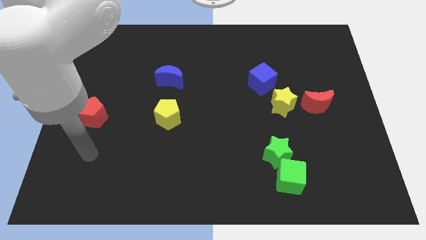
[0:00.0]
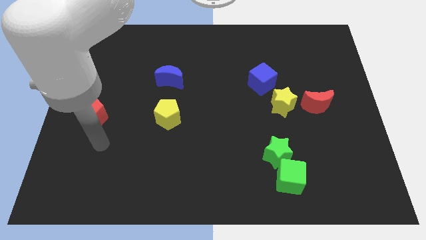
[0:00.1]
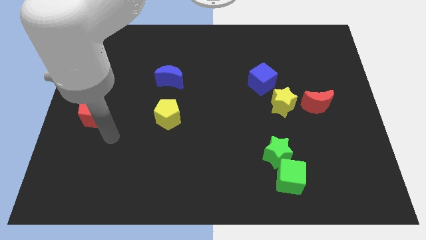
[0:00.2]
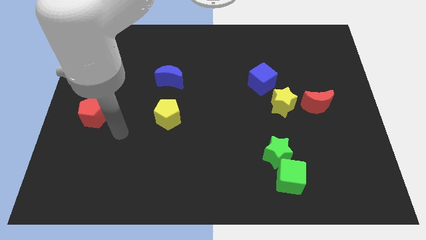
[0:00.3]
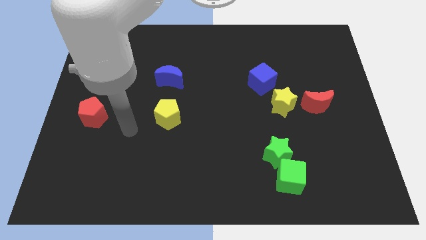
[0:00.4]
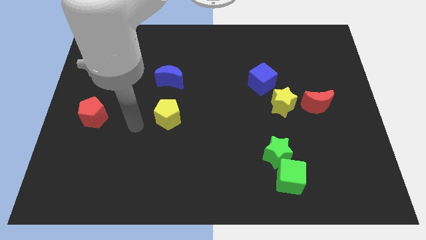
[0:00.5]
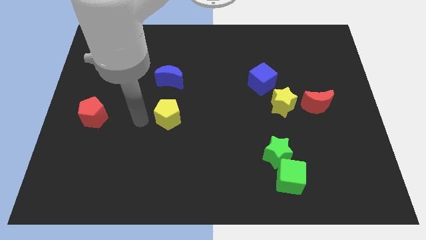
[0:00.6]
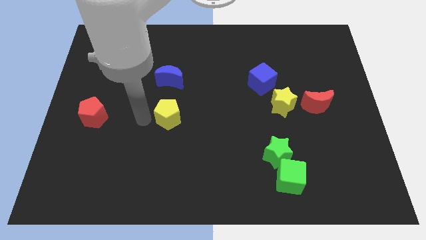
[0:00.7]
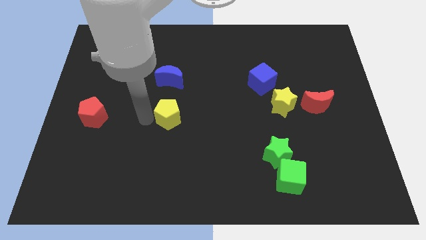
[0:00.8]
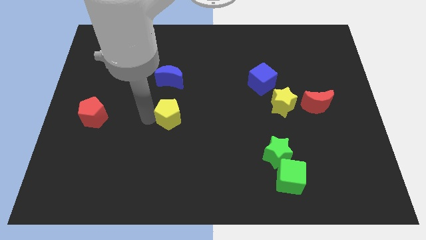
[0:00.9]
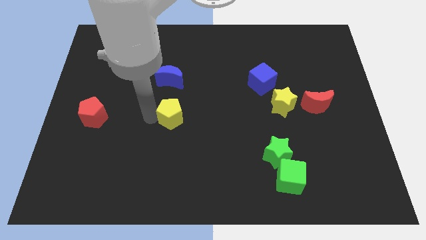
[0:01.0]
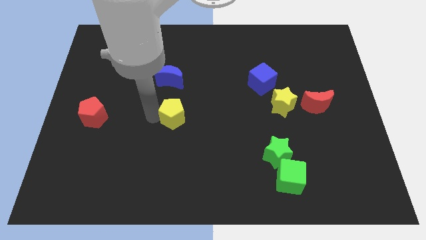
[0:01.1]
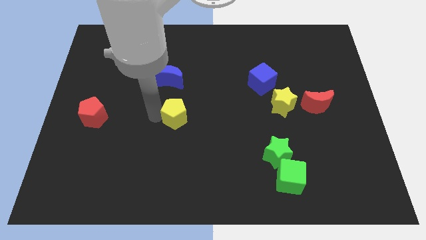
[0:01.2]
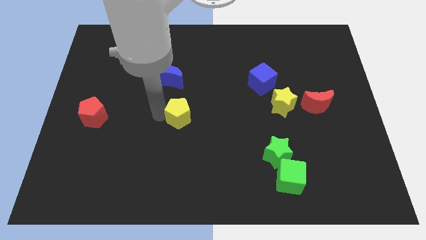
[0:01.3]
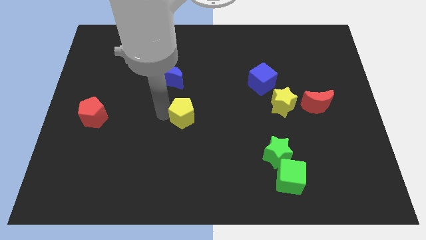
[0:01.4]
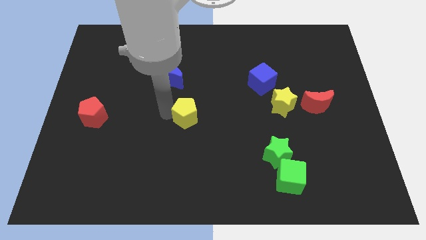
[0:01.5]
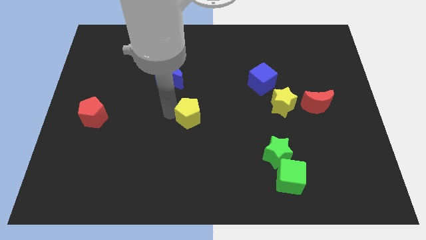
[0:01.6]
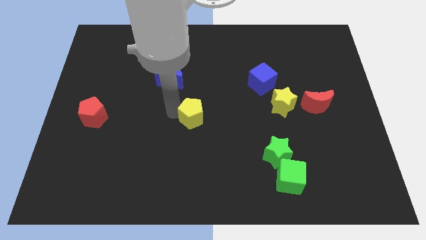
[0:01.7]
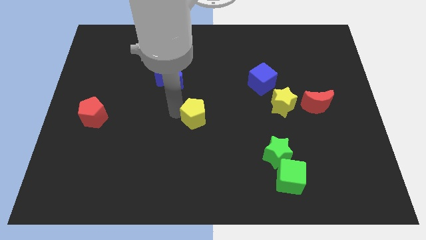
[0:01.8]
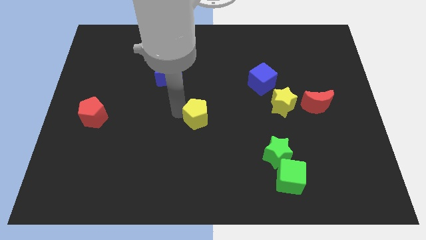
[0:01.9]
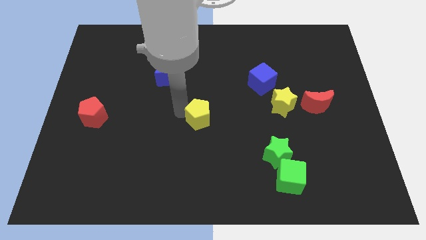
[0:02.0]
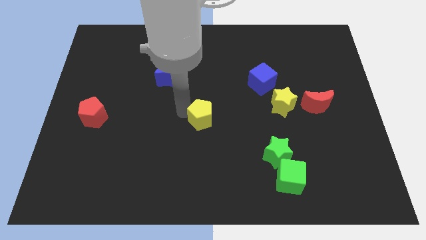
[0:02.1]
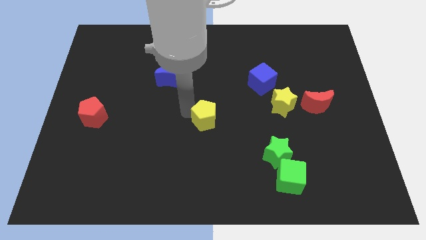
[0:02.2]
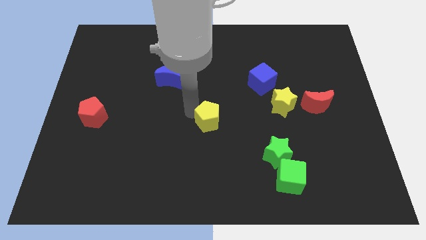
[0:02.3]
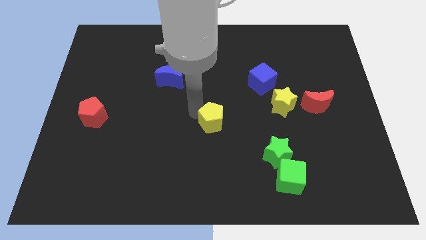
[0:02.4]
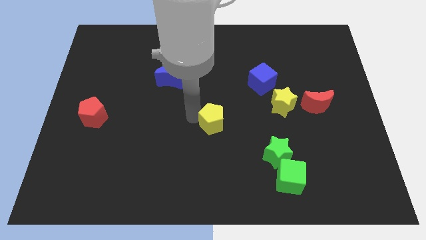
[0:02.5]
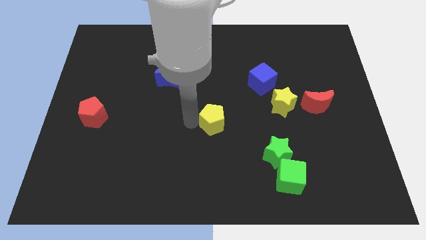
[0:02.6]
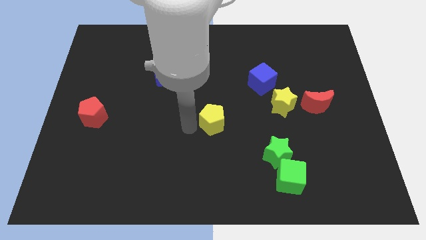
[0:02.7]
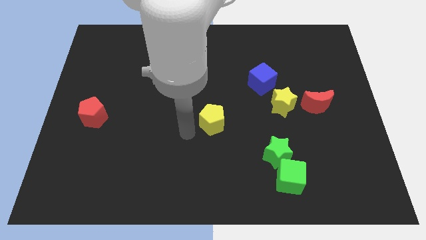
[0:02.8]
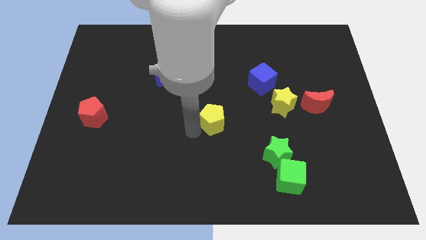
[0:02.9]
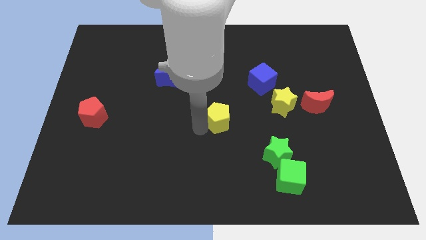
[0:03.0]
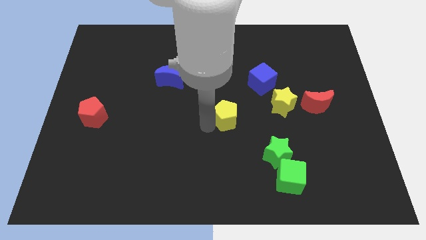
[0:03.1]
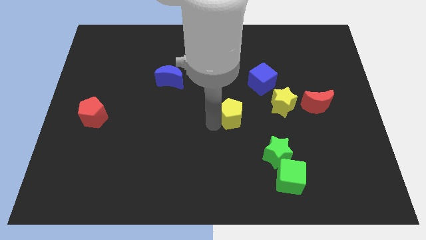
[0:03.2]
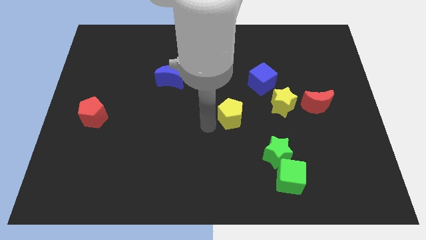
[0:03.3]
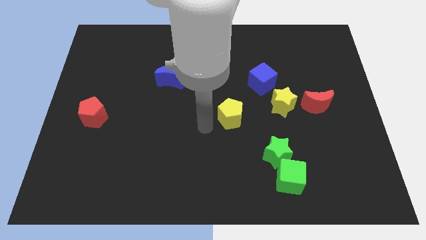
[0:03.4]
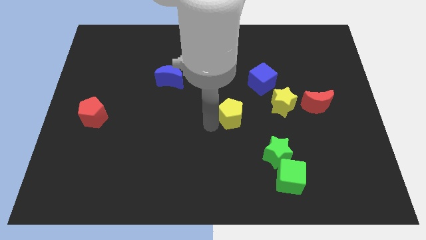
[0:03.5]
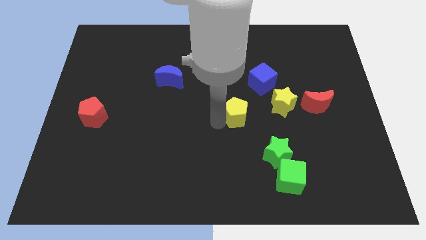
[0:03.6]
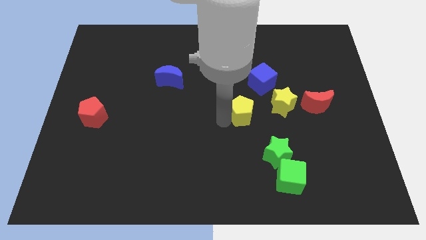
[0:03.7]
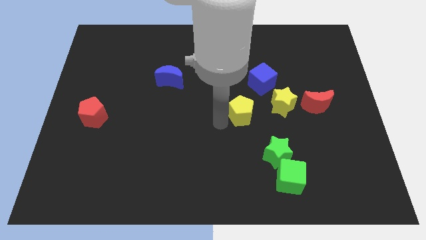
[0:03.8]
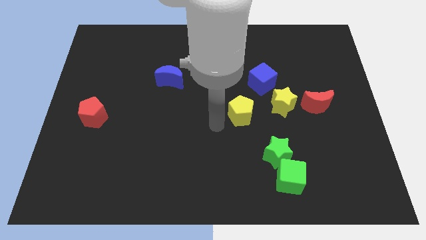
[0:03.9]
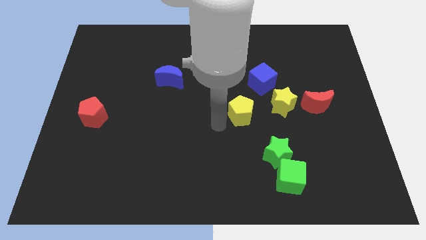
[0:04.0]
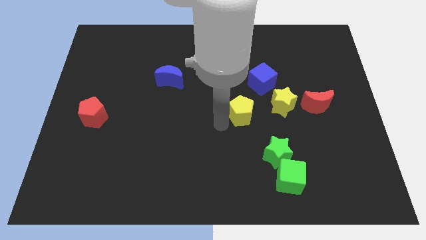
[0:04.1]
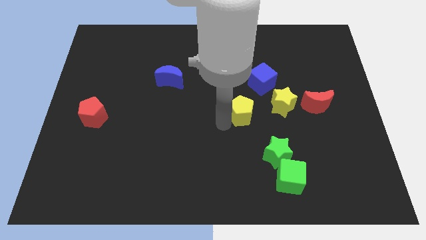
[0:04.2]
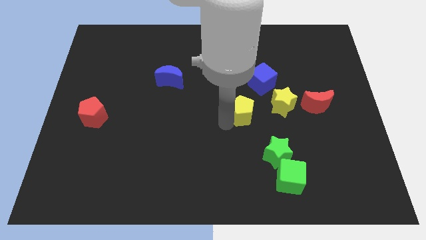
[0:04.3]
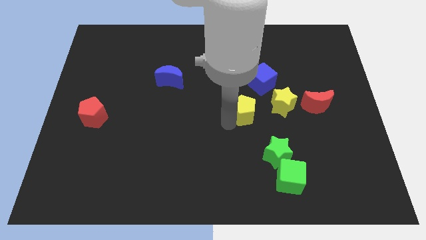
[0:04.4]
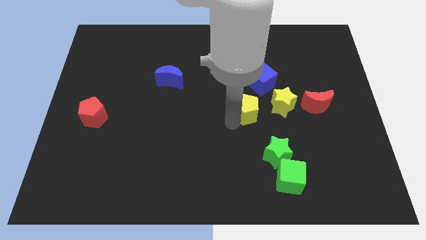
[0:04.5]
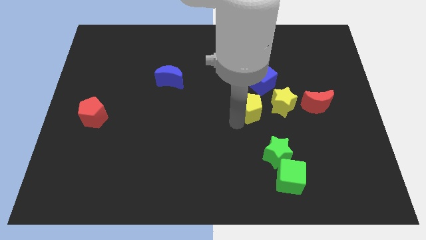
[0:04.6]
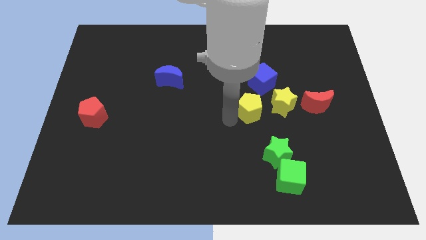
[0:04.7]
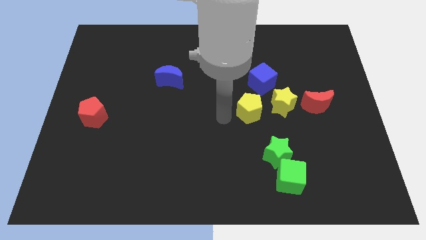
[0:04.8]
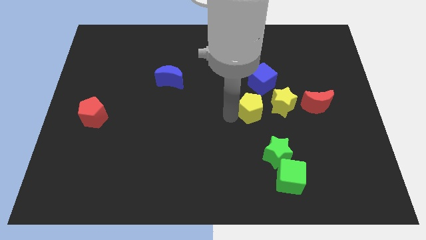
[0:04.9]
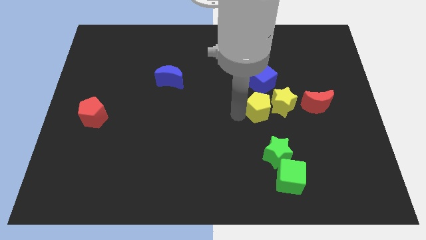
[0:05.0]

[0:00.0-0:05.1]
push the yellow pentagon close to the yellow star

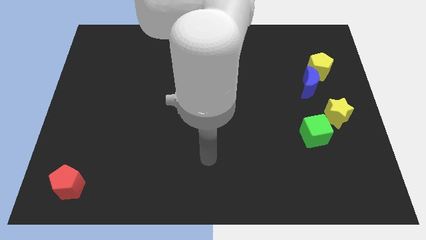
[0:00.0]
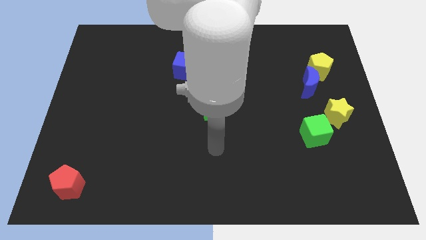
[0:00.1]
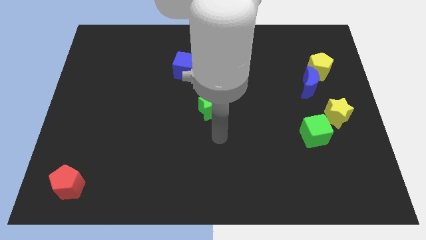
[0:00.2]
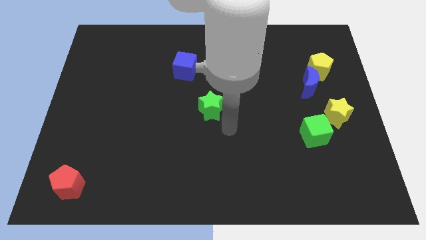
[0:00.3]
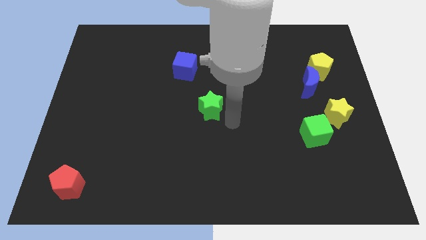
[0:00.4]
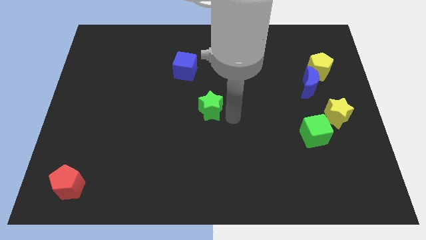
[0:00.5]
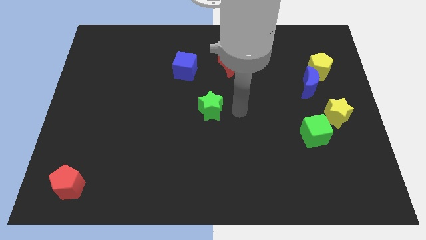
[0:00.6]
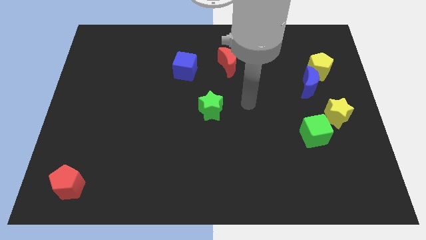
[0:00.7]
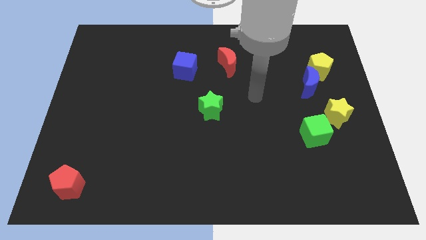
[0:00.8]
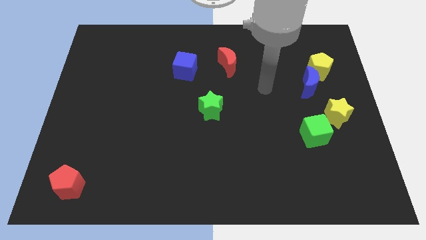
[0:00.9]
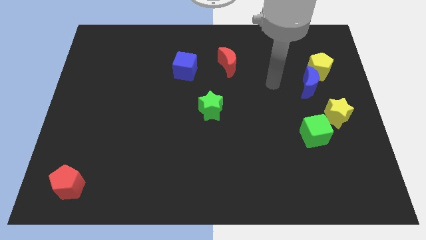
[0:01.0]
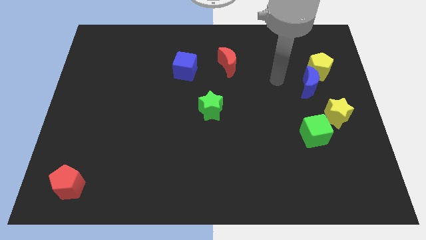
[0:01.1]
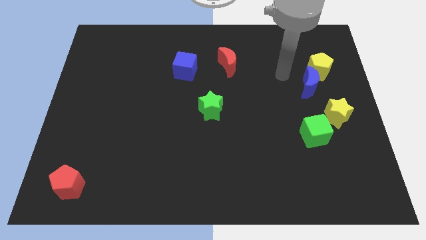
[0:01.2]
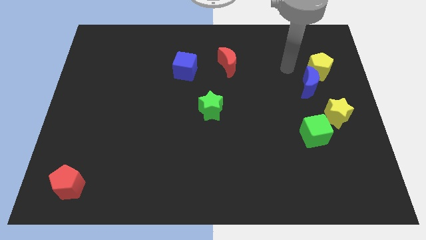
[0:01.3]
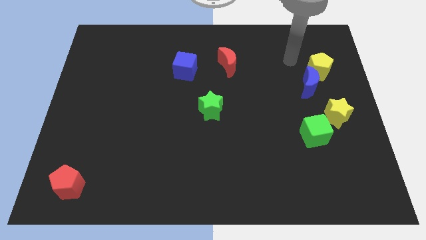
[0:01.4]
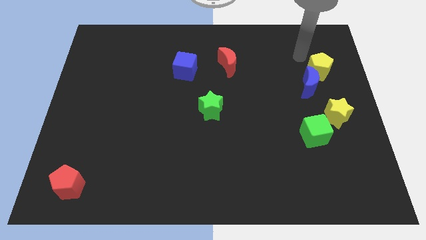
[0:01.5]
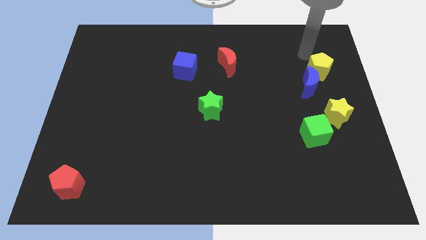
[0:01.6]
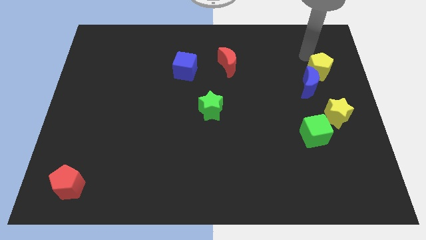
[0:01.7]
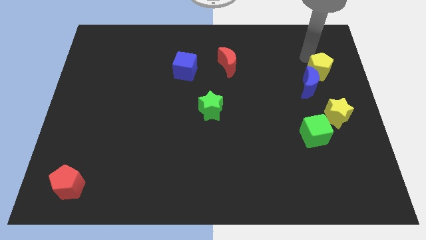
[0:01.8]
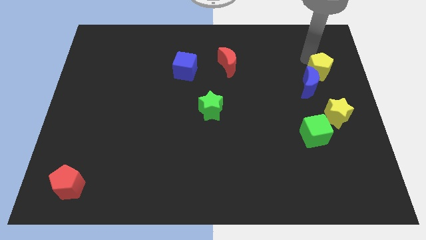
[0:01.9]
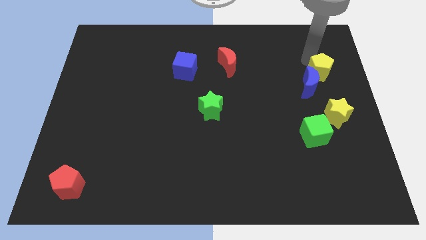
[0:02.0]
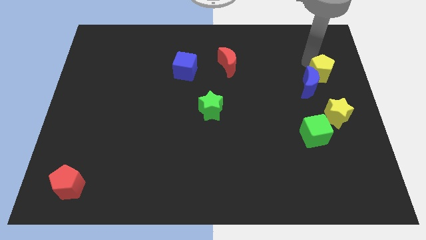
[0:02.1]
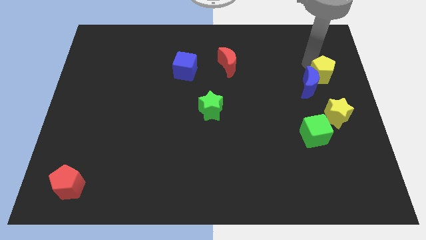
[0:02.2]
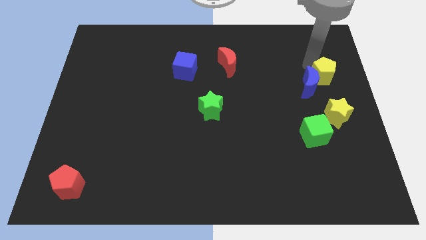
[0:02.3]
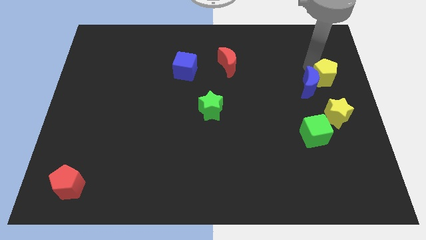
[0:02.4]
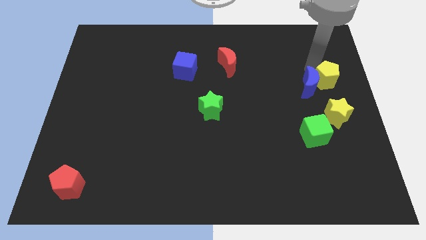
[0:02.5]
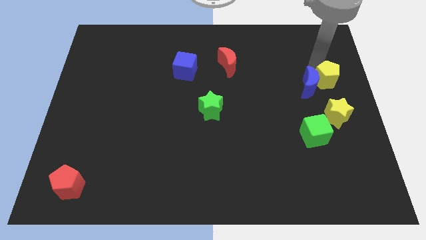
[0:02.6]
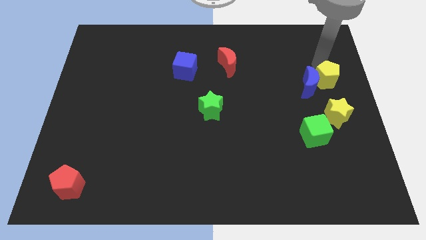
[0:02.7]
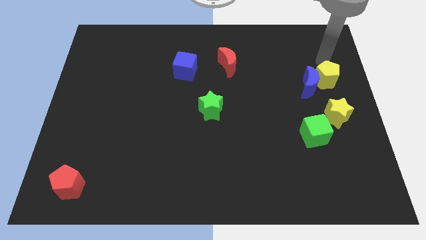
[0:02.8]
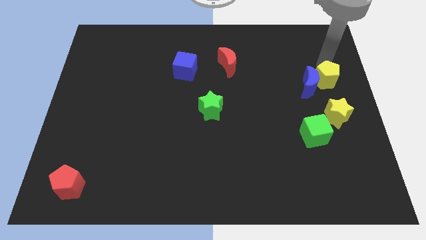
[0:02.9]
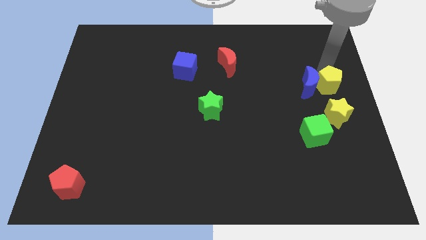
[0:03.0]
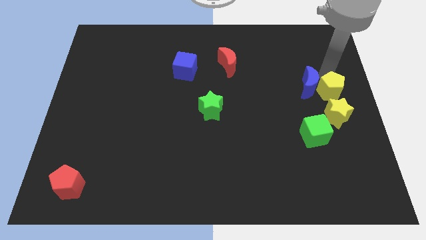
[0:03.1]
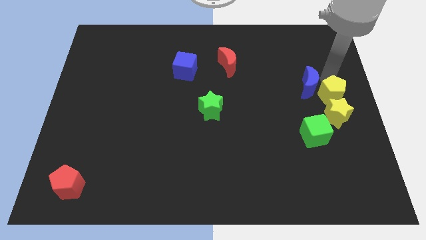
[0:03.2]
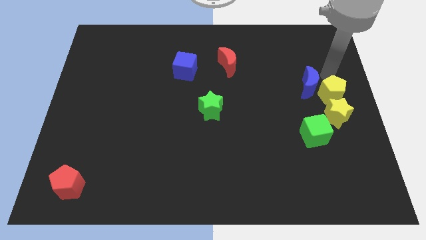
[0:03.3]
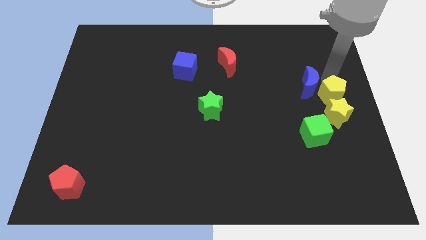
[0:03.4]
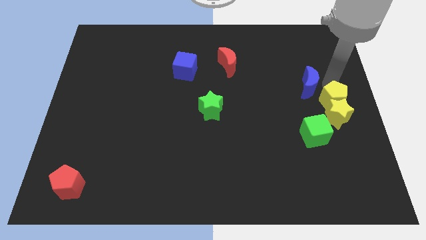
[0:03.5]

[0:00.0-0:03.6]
move the yellow pentagon close to the yellow star
